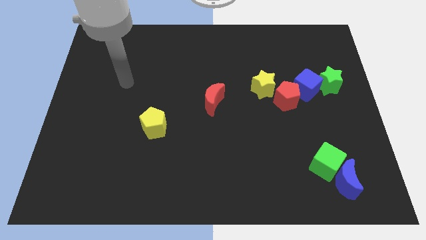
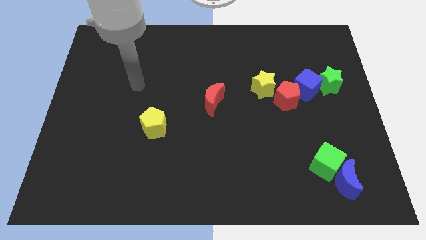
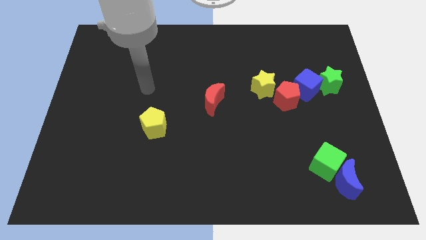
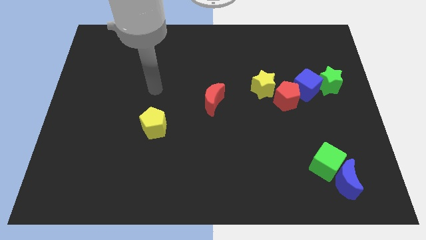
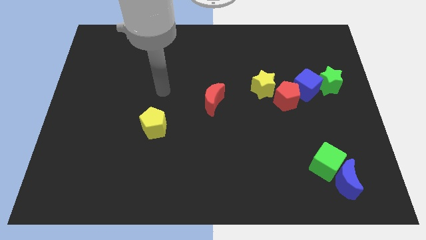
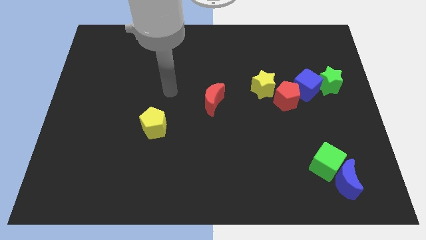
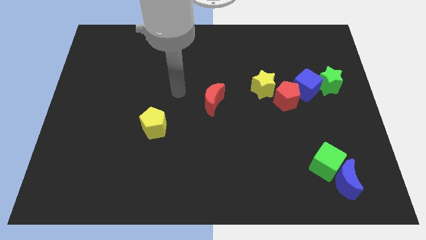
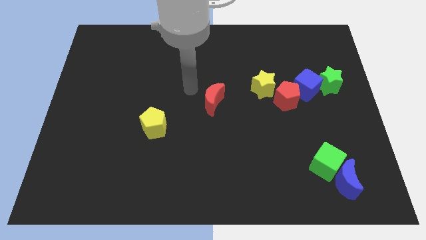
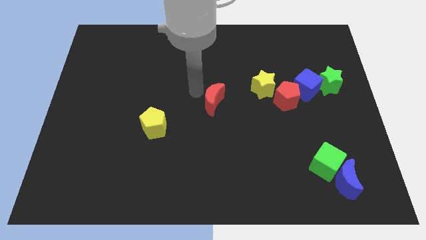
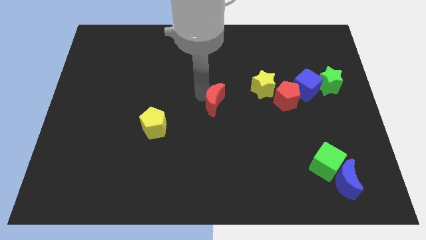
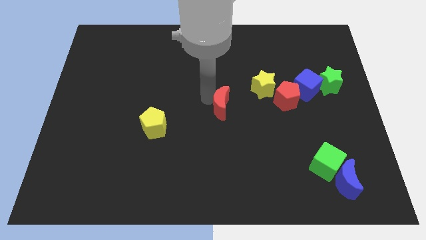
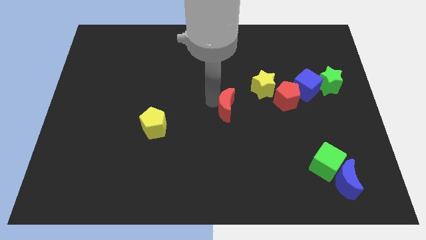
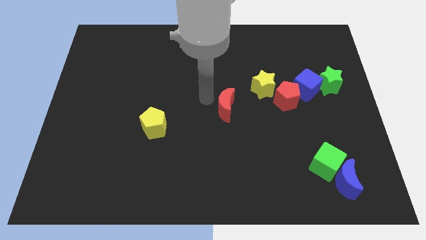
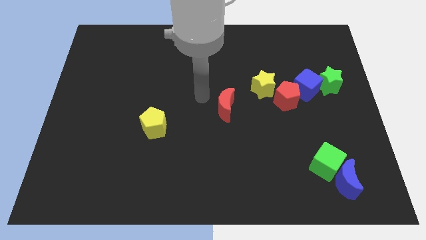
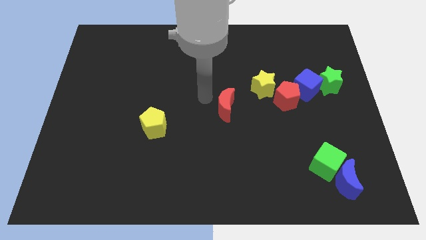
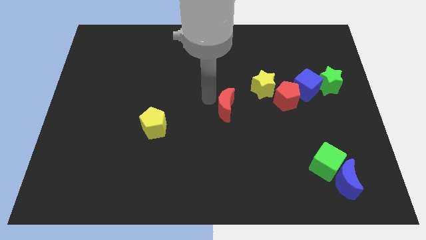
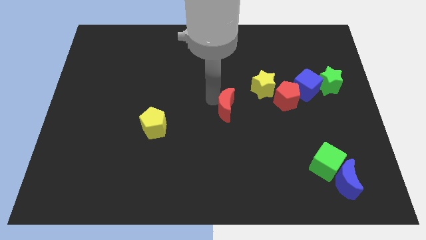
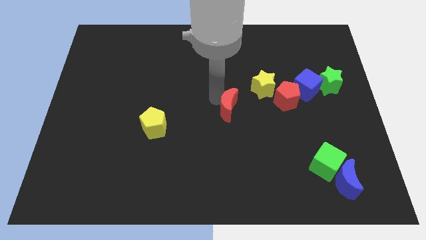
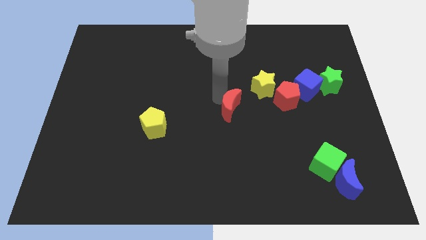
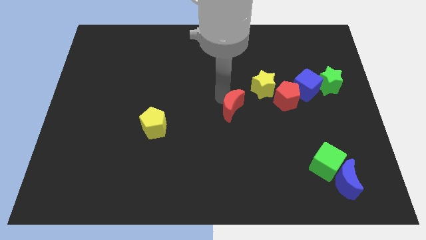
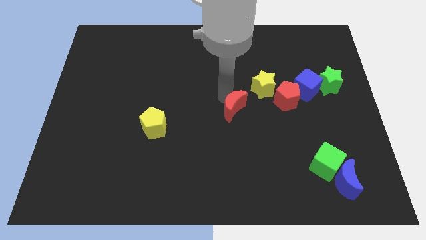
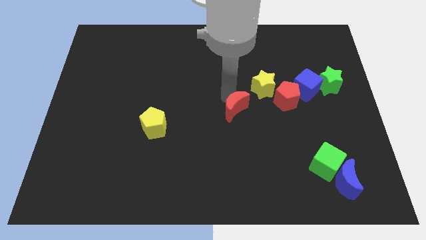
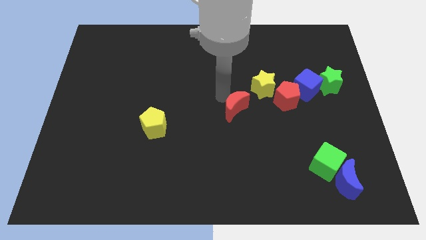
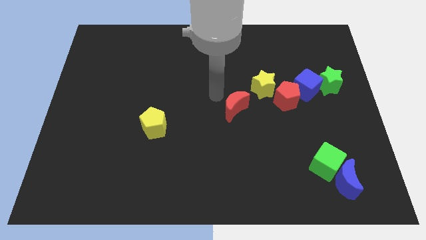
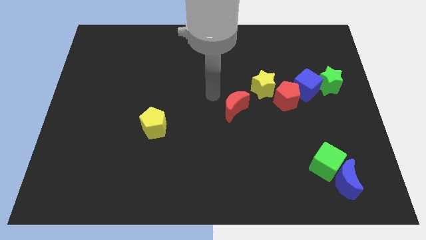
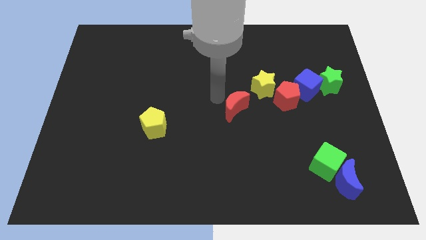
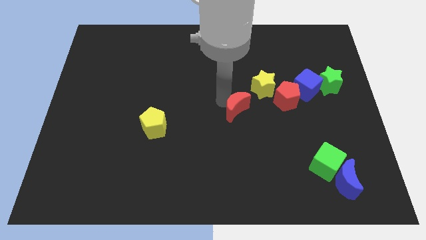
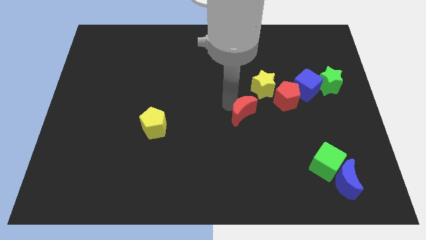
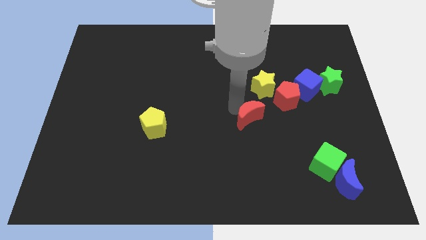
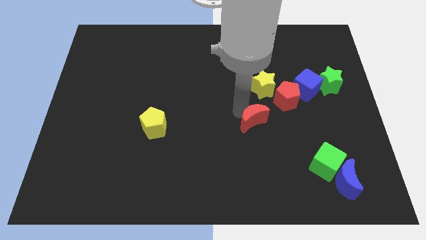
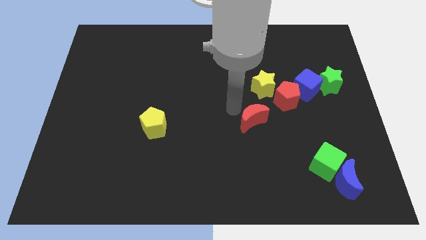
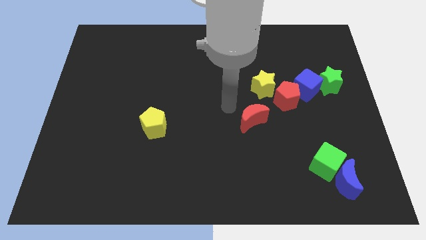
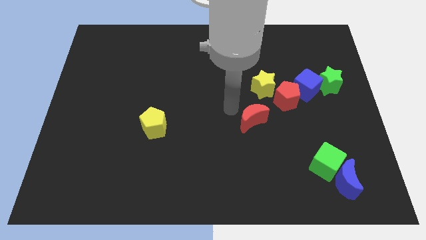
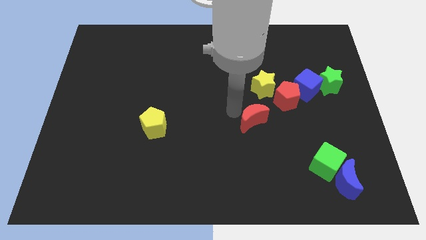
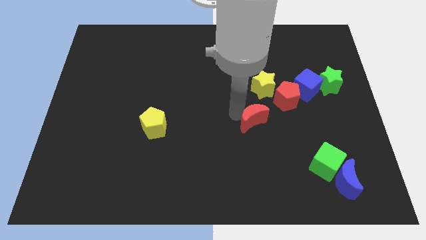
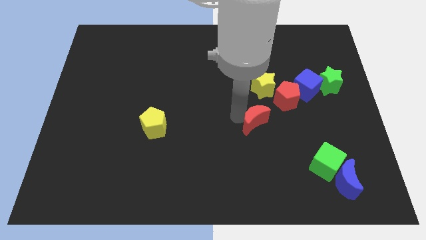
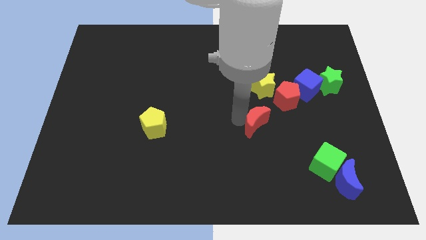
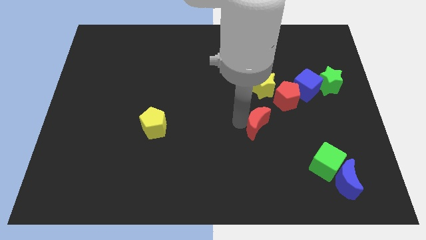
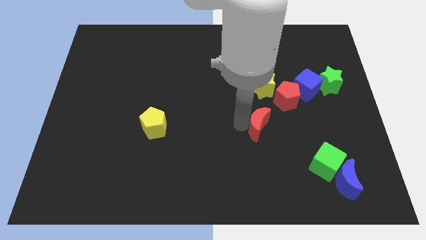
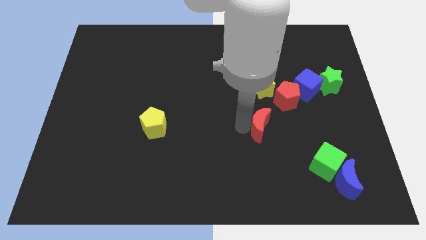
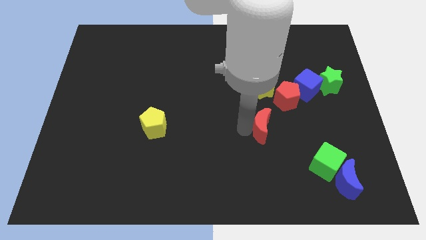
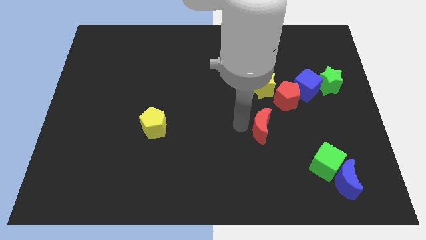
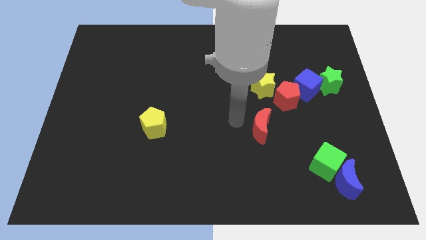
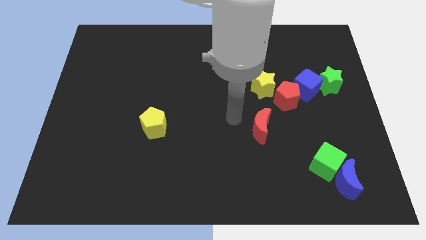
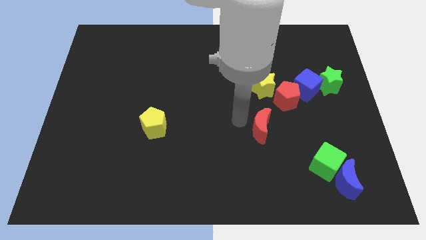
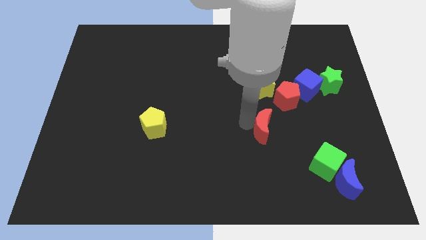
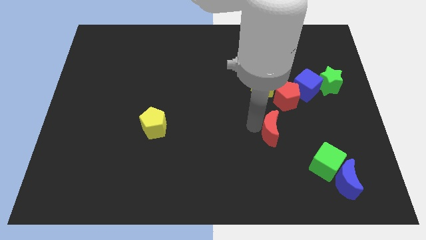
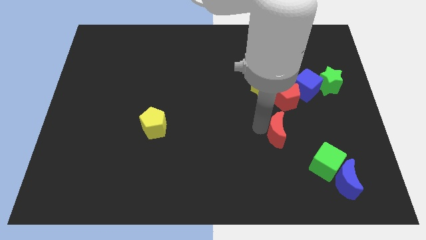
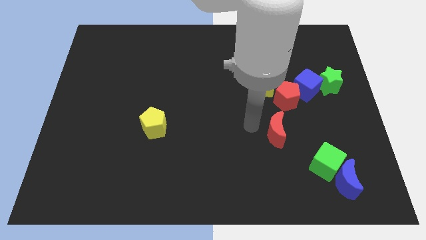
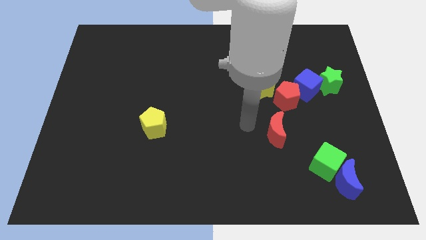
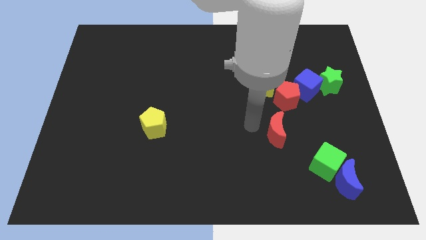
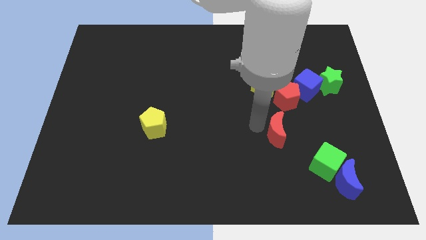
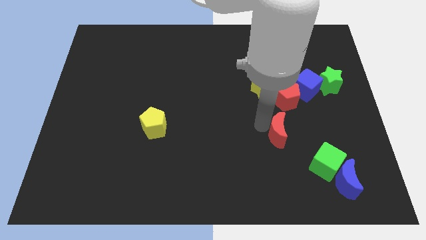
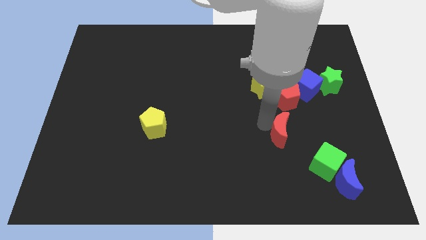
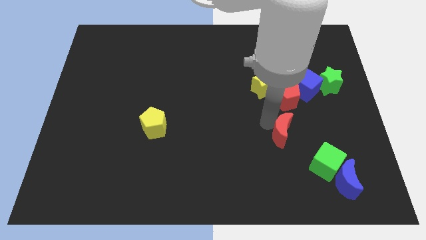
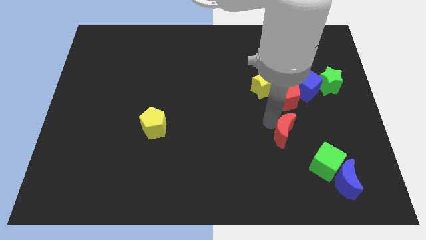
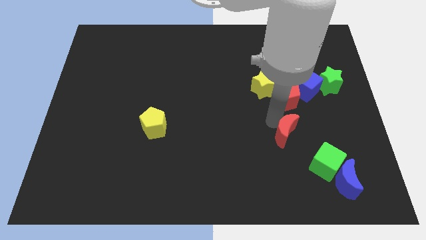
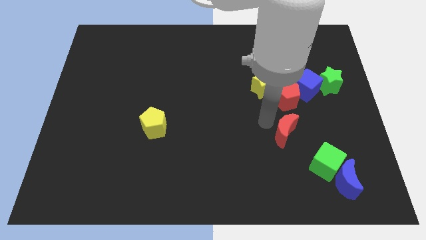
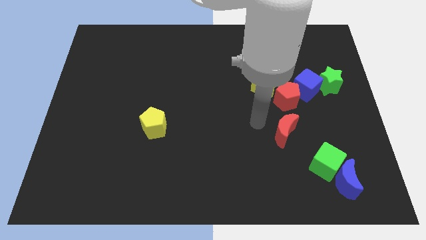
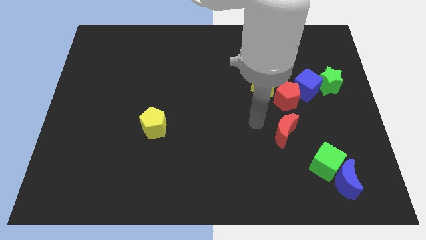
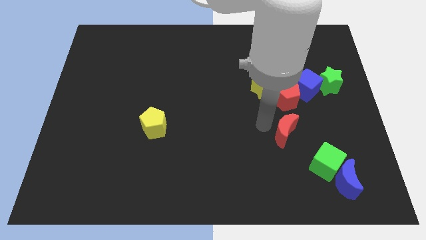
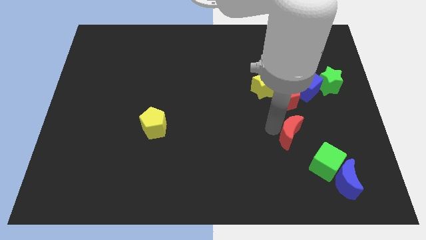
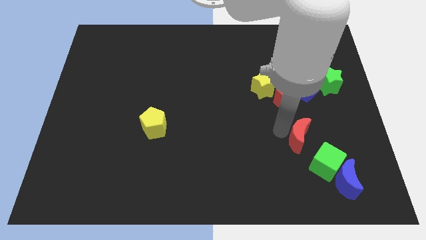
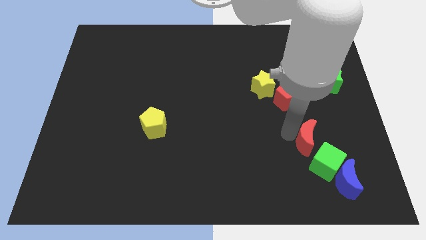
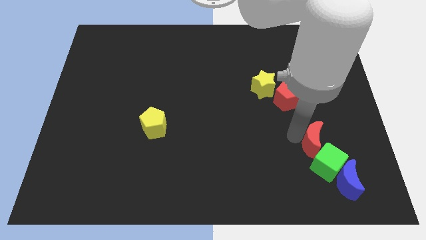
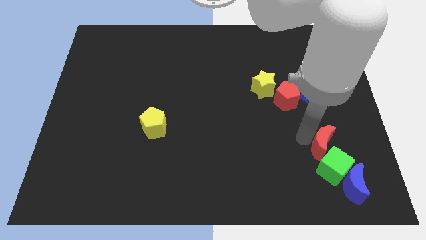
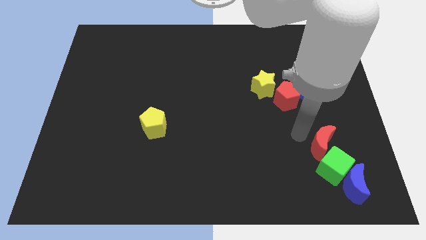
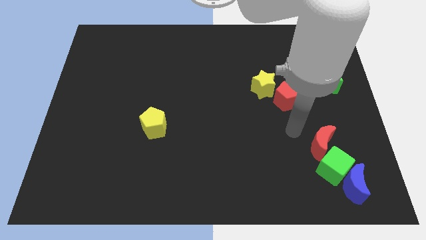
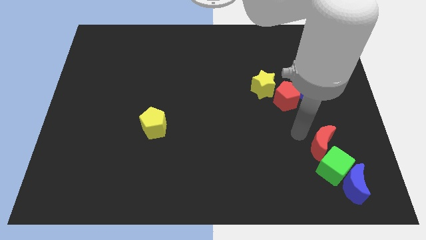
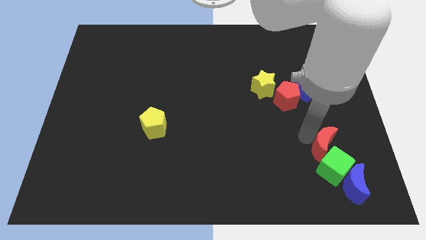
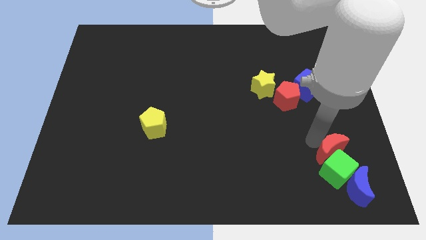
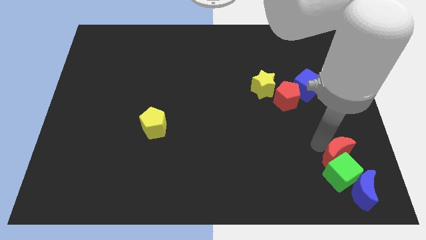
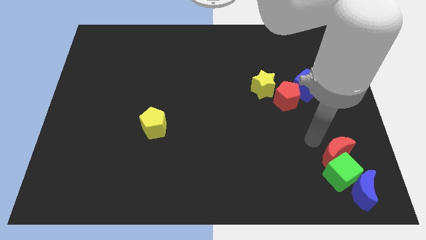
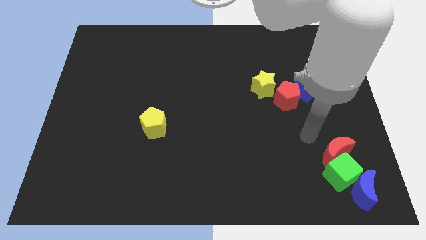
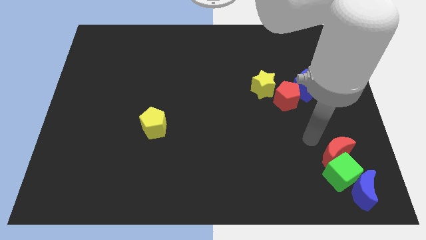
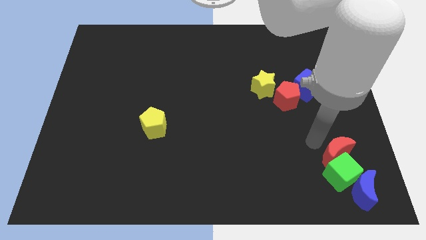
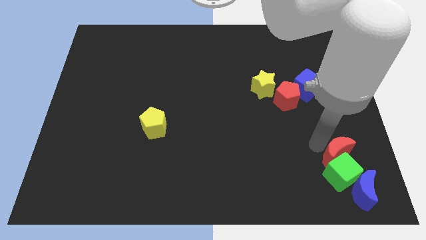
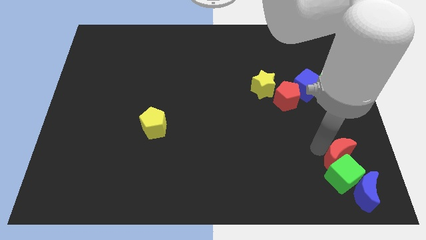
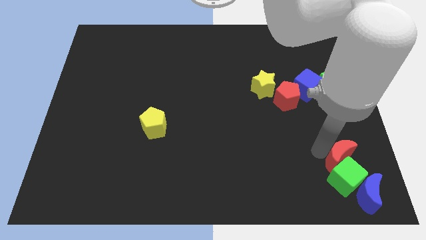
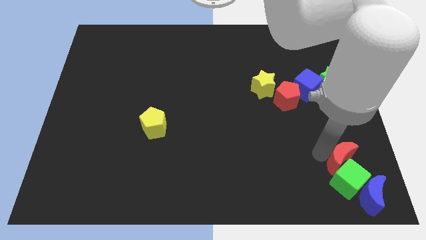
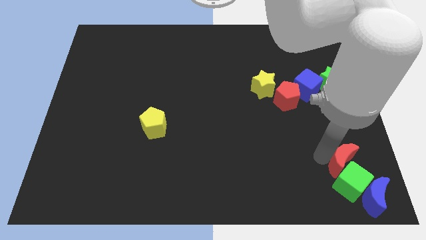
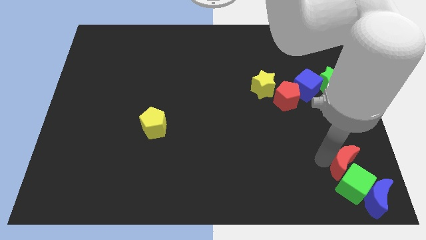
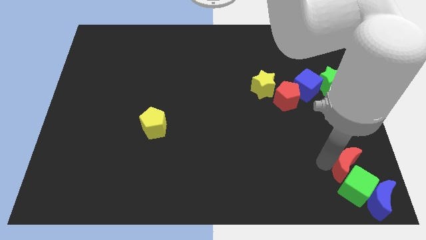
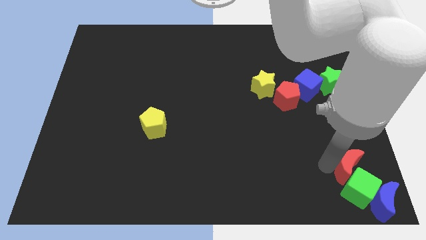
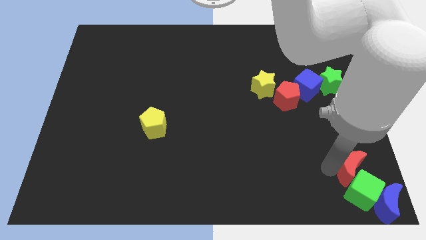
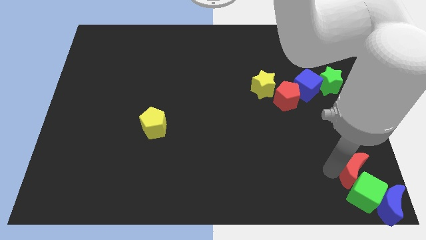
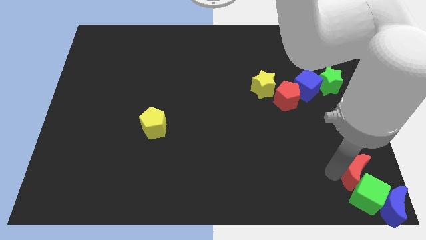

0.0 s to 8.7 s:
push the red moon to the bottom right of the board
